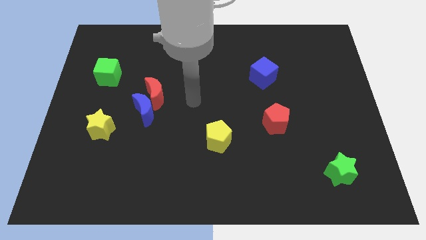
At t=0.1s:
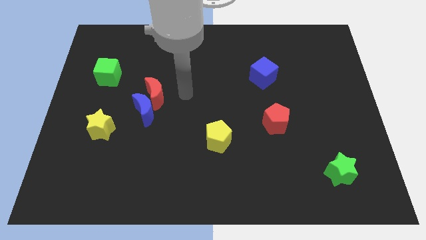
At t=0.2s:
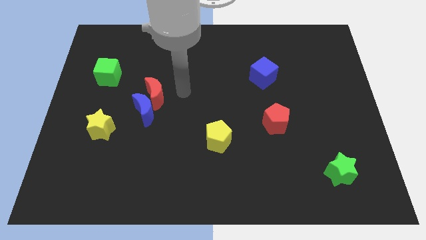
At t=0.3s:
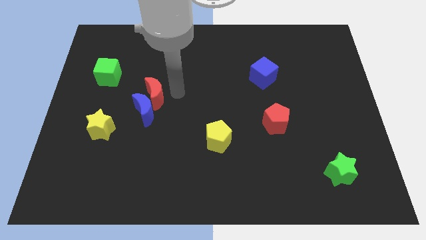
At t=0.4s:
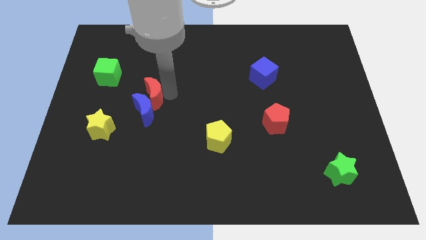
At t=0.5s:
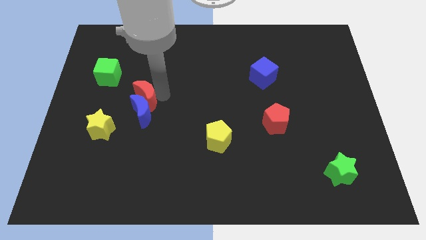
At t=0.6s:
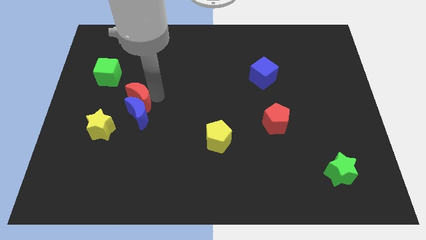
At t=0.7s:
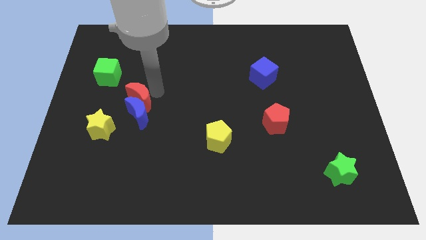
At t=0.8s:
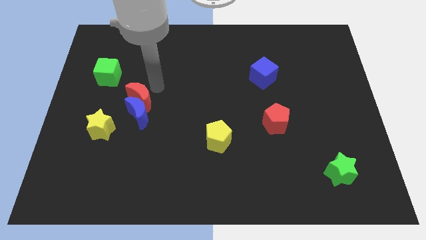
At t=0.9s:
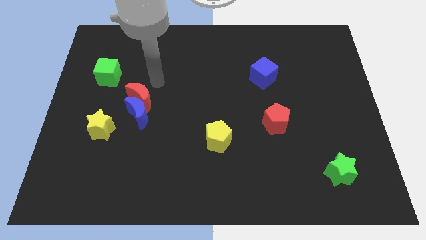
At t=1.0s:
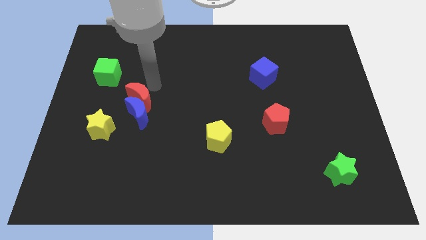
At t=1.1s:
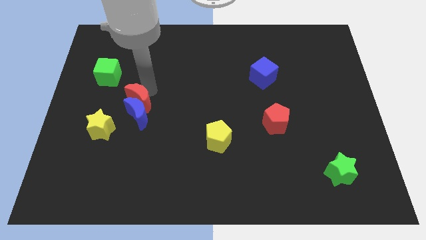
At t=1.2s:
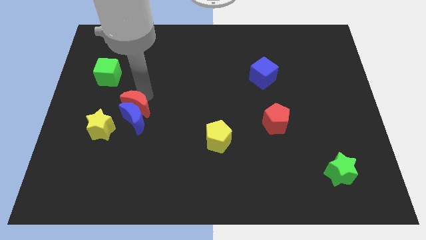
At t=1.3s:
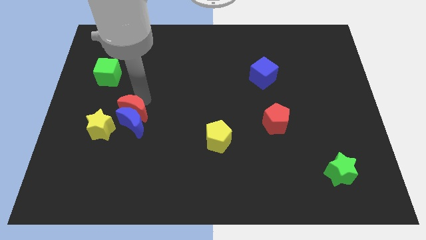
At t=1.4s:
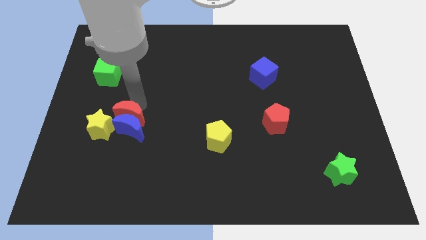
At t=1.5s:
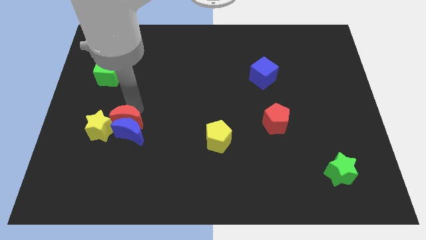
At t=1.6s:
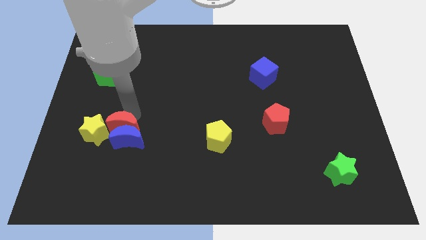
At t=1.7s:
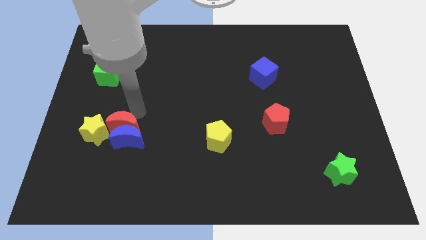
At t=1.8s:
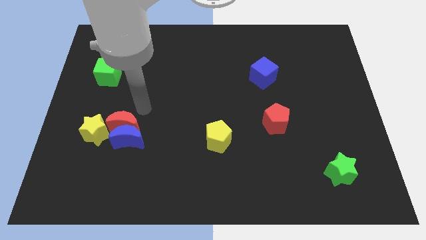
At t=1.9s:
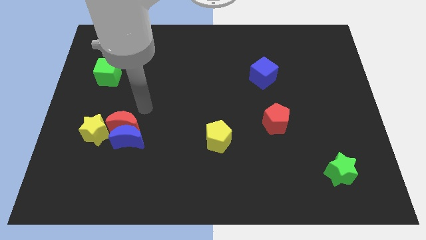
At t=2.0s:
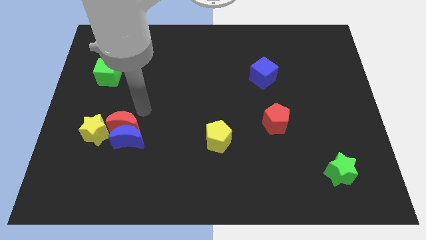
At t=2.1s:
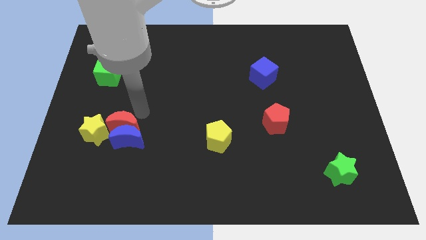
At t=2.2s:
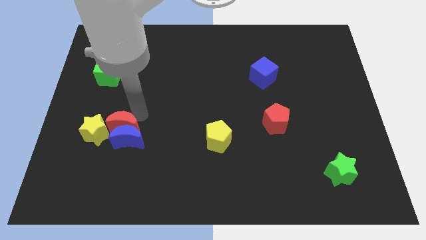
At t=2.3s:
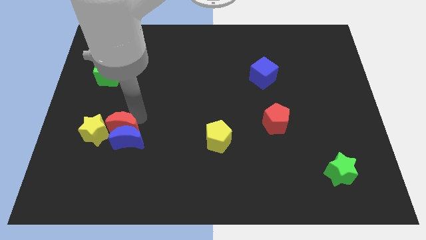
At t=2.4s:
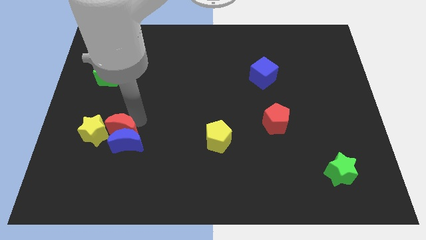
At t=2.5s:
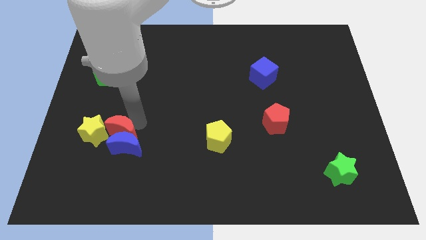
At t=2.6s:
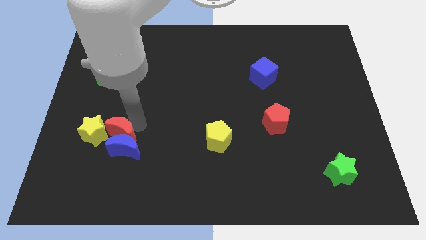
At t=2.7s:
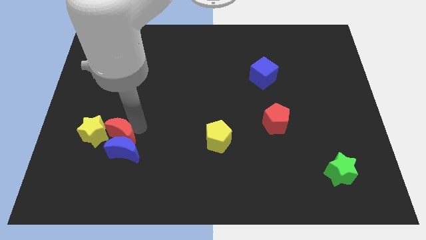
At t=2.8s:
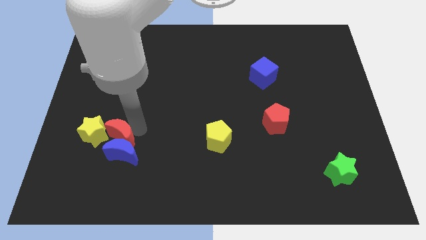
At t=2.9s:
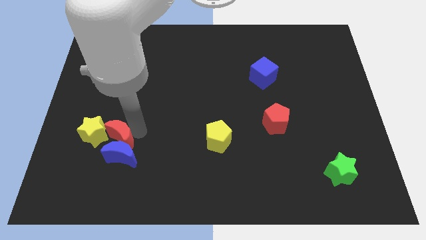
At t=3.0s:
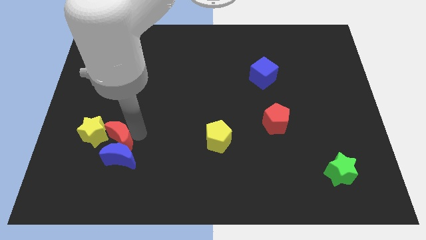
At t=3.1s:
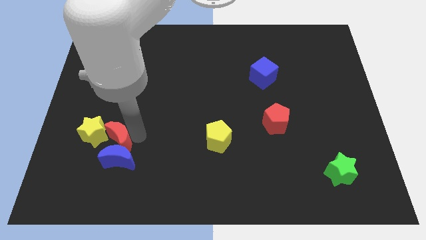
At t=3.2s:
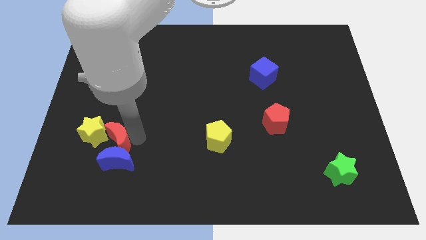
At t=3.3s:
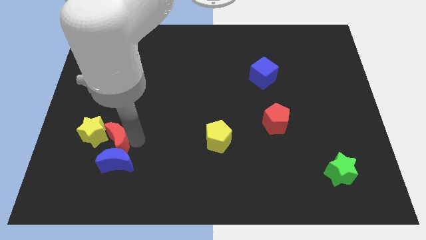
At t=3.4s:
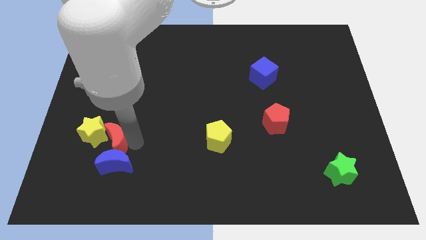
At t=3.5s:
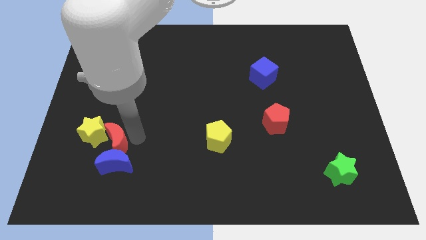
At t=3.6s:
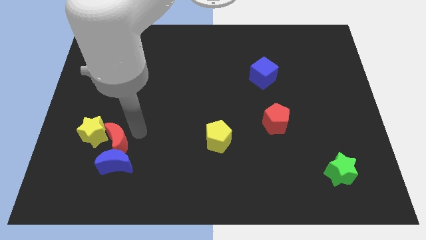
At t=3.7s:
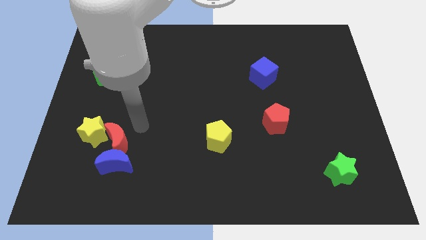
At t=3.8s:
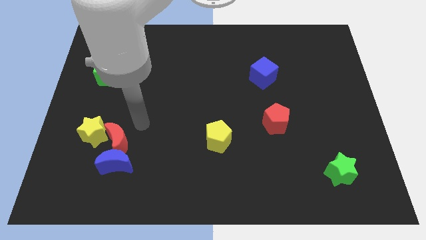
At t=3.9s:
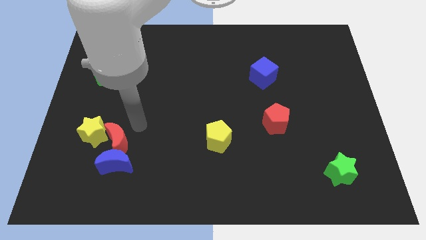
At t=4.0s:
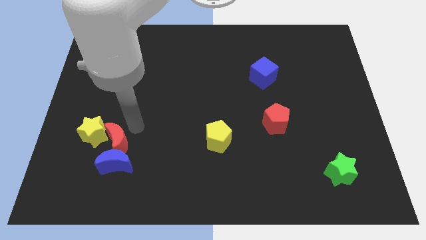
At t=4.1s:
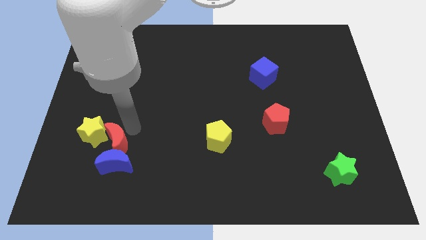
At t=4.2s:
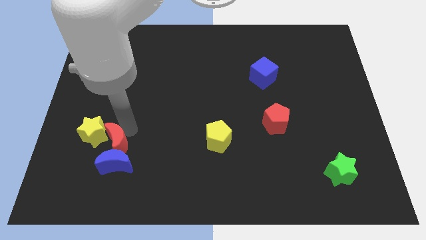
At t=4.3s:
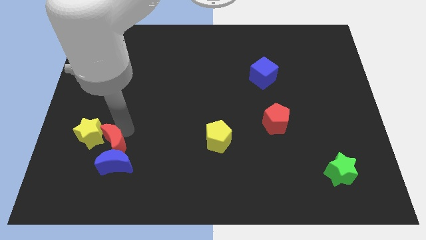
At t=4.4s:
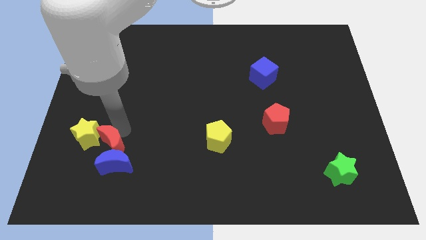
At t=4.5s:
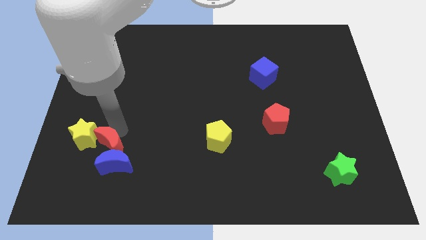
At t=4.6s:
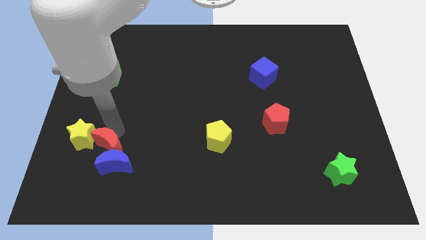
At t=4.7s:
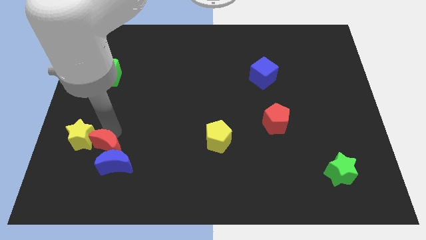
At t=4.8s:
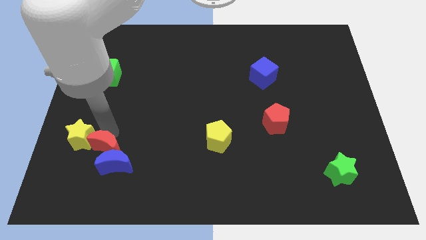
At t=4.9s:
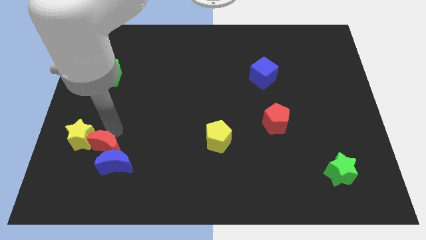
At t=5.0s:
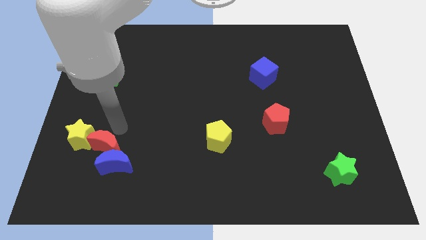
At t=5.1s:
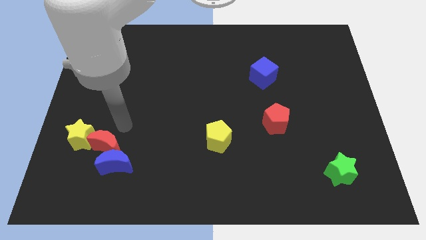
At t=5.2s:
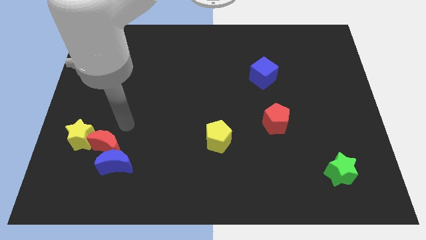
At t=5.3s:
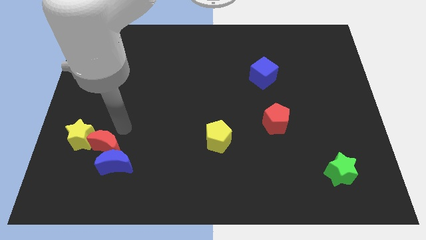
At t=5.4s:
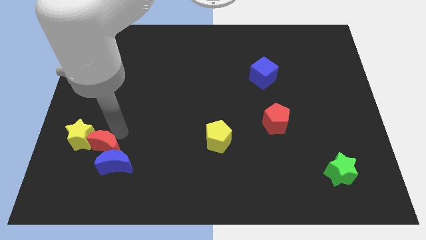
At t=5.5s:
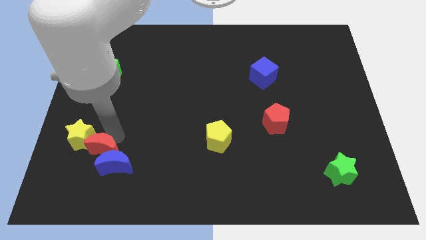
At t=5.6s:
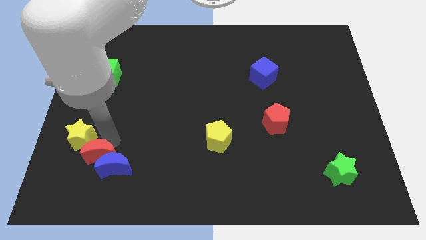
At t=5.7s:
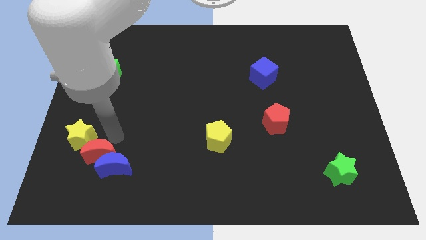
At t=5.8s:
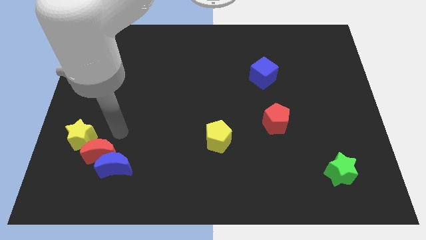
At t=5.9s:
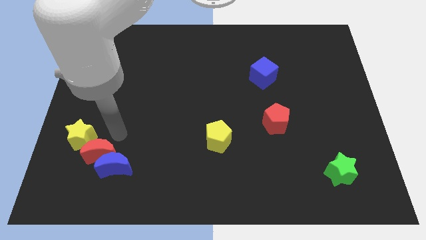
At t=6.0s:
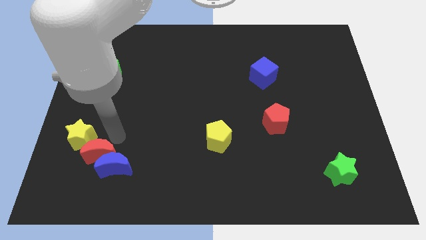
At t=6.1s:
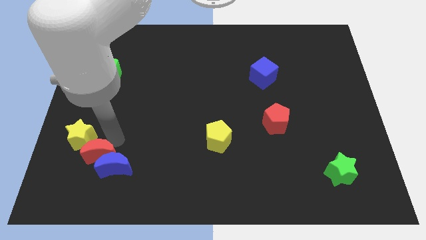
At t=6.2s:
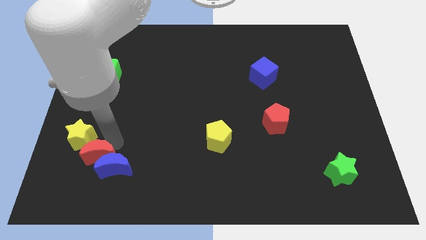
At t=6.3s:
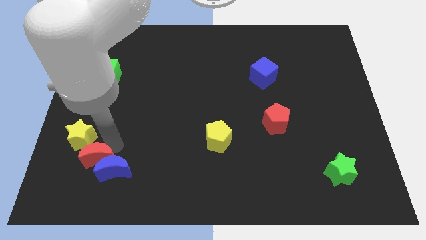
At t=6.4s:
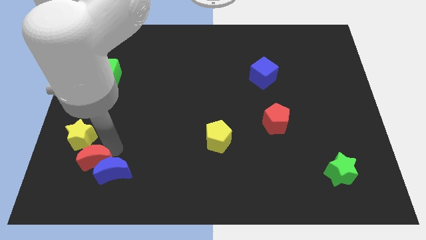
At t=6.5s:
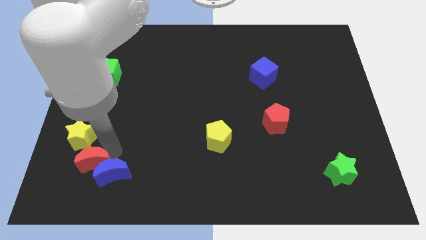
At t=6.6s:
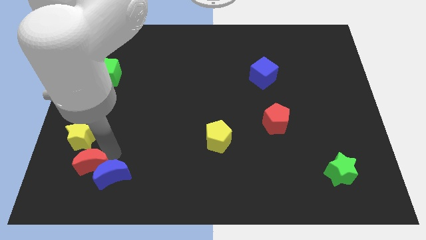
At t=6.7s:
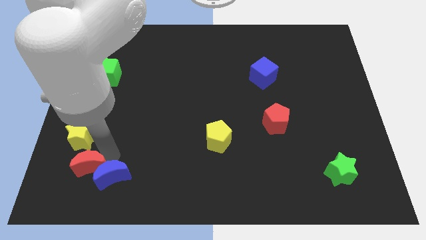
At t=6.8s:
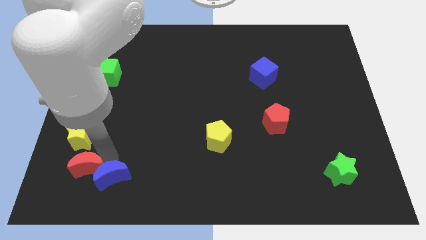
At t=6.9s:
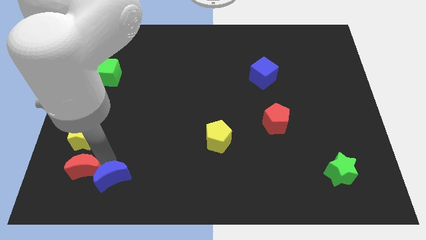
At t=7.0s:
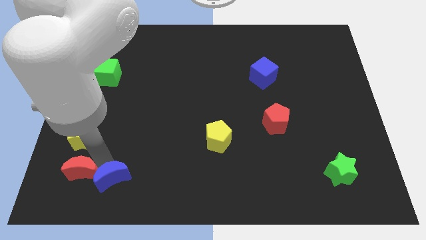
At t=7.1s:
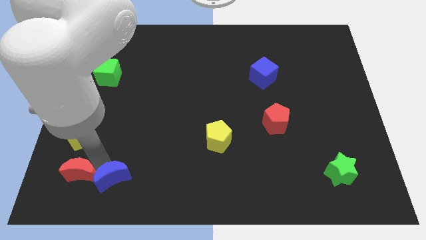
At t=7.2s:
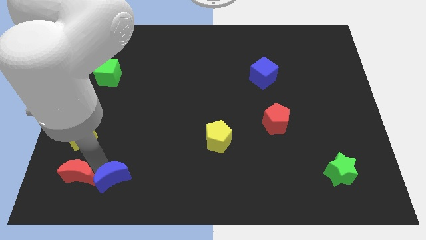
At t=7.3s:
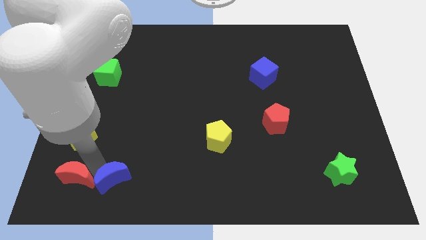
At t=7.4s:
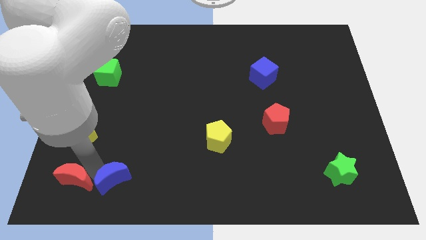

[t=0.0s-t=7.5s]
slide the red moon to the bottom left of the board
